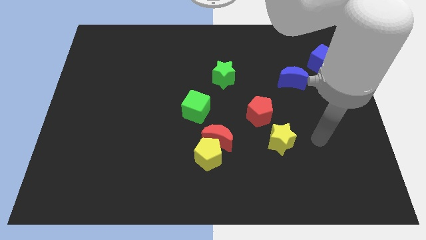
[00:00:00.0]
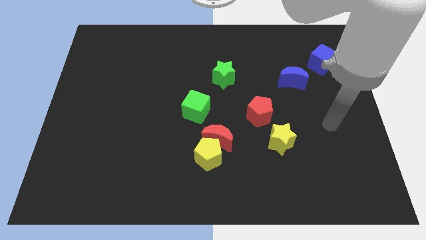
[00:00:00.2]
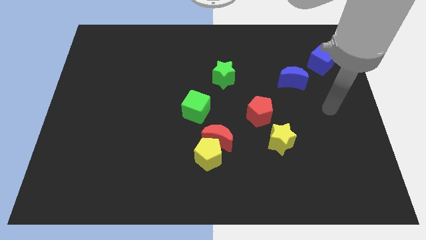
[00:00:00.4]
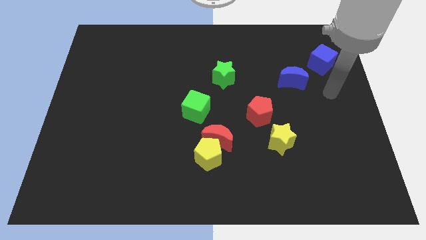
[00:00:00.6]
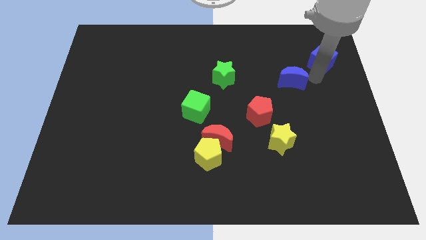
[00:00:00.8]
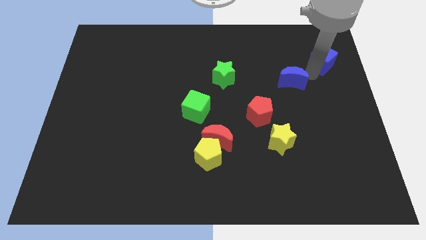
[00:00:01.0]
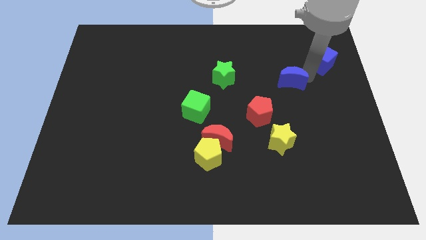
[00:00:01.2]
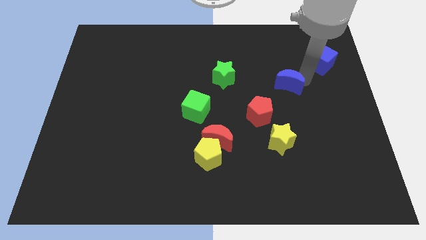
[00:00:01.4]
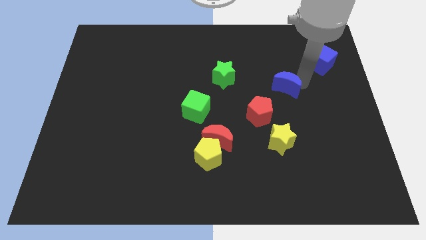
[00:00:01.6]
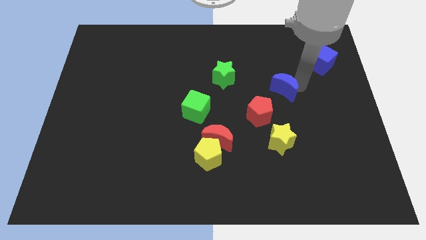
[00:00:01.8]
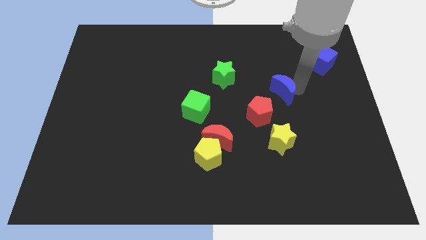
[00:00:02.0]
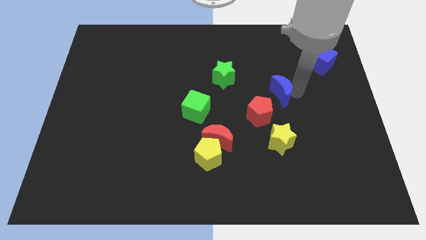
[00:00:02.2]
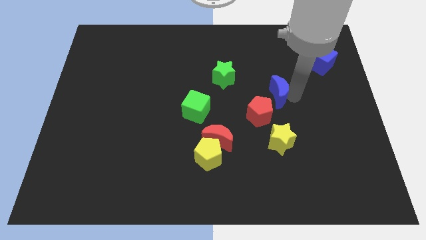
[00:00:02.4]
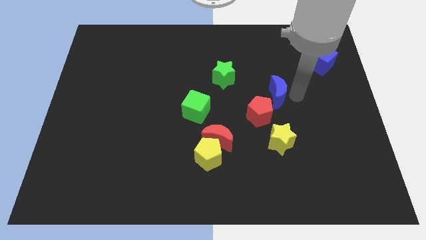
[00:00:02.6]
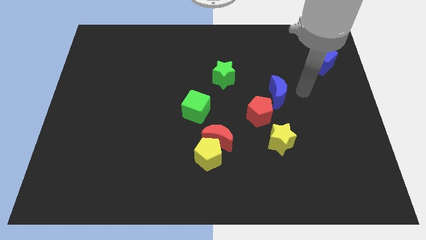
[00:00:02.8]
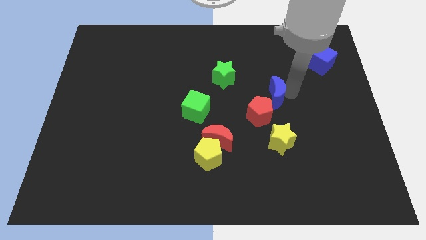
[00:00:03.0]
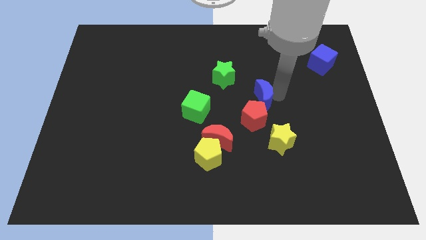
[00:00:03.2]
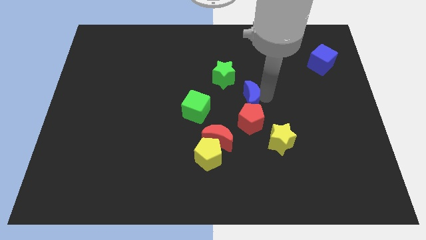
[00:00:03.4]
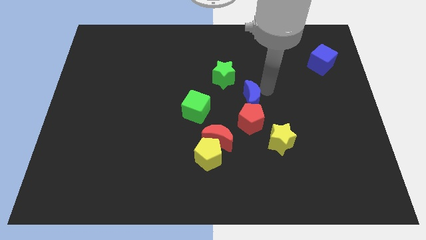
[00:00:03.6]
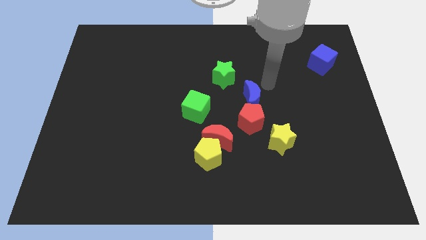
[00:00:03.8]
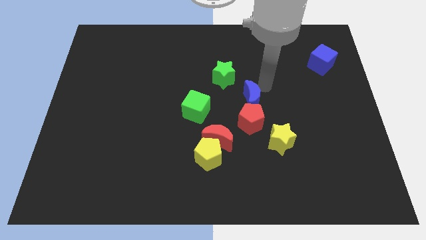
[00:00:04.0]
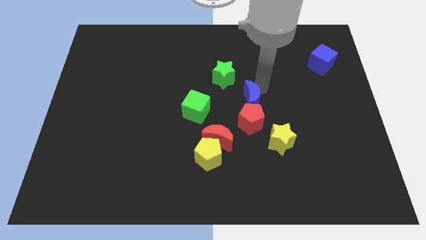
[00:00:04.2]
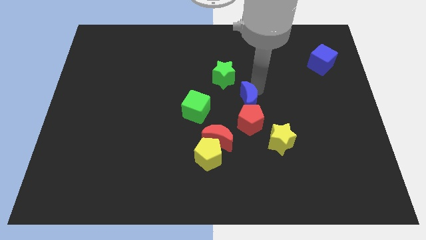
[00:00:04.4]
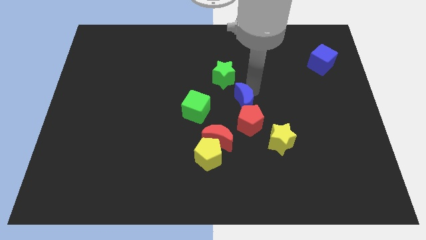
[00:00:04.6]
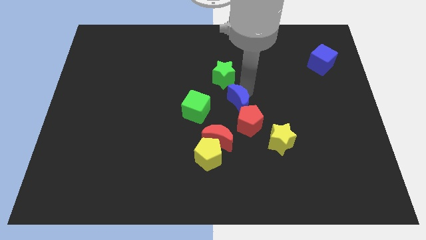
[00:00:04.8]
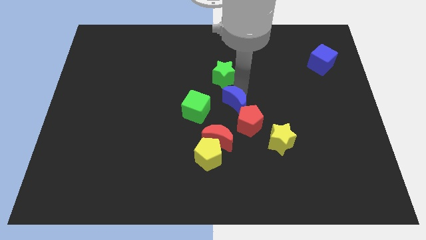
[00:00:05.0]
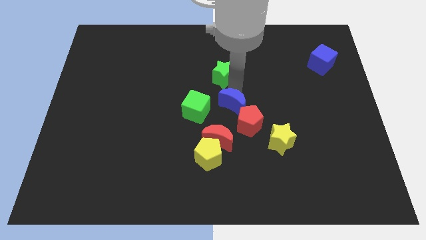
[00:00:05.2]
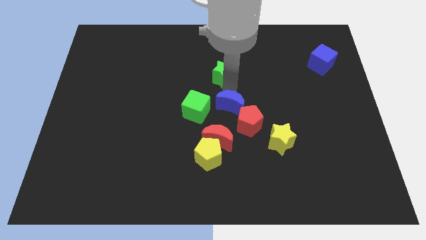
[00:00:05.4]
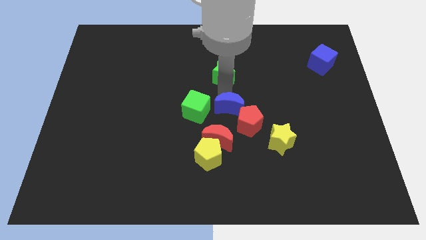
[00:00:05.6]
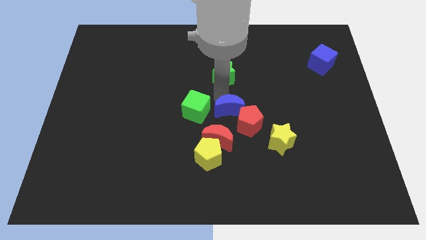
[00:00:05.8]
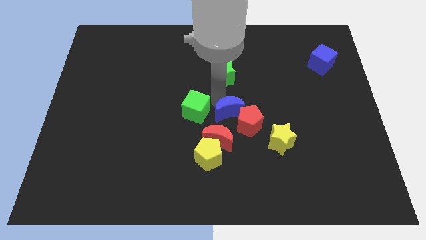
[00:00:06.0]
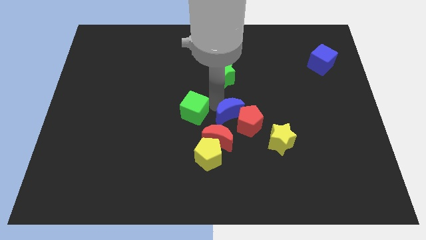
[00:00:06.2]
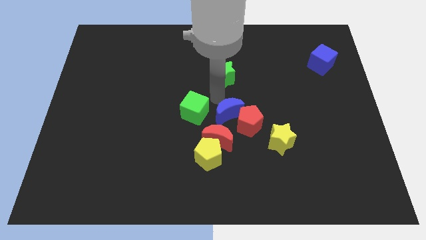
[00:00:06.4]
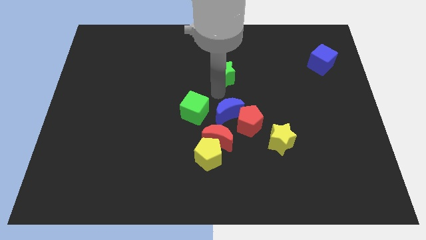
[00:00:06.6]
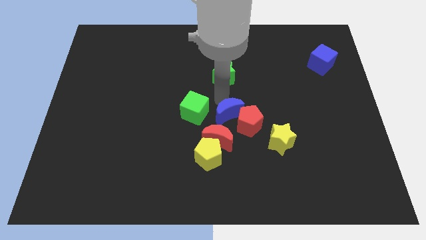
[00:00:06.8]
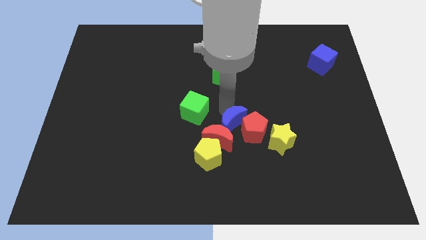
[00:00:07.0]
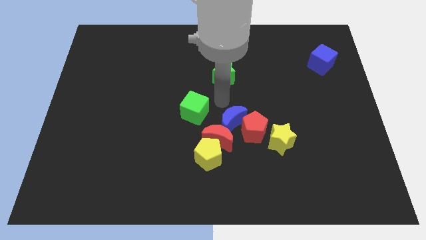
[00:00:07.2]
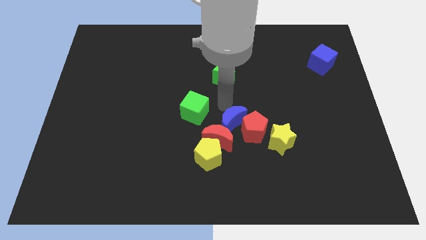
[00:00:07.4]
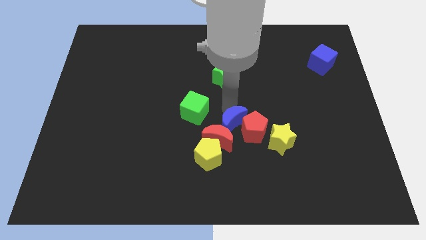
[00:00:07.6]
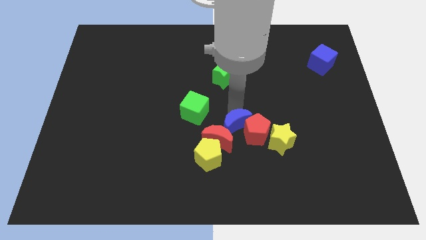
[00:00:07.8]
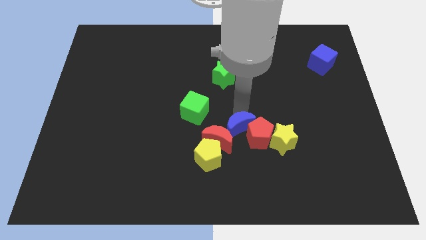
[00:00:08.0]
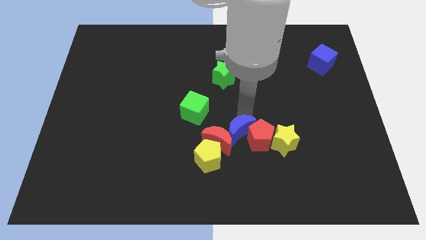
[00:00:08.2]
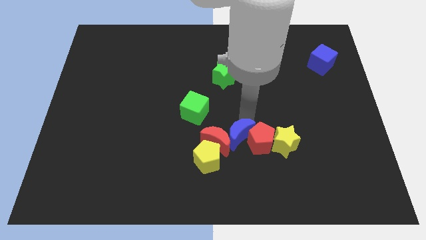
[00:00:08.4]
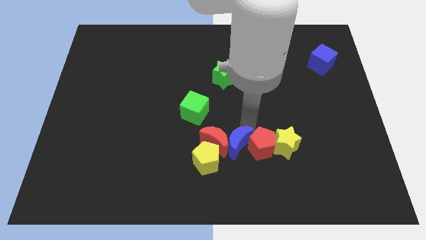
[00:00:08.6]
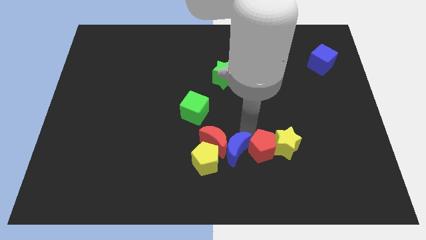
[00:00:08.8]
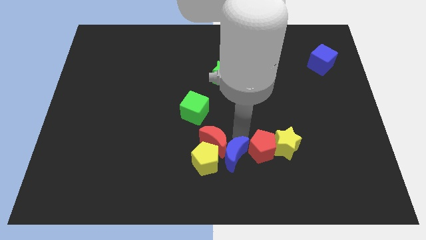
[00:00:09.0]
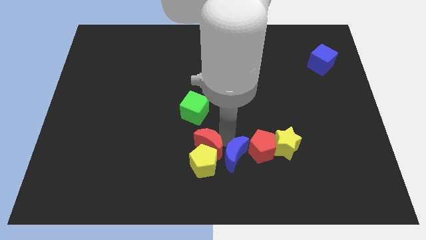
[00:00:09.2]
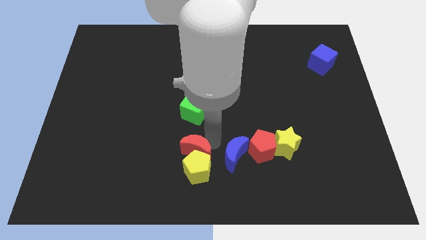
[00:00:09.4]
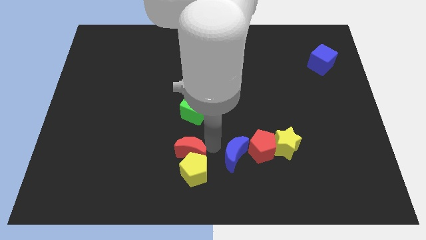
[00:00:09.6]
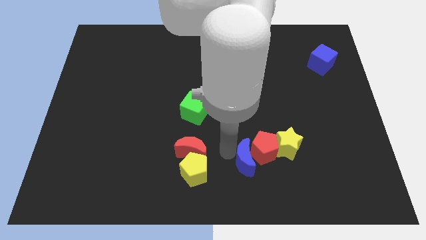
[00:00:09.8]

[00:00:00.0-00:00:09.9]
slide the blue moon to the bottom left of the yellow star

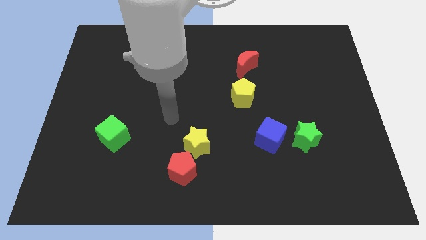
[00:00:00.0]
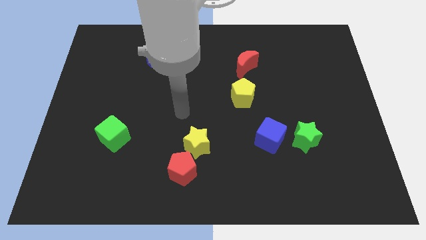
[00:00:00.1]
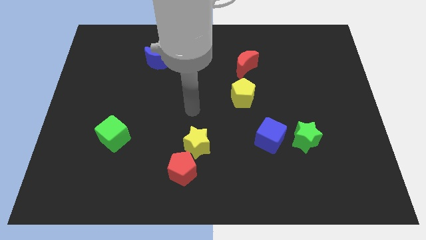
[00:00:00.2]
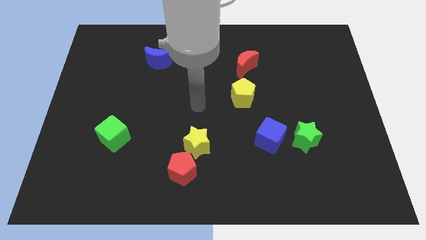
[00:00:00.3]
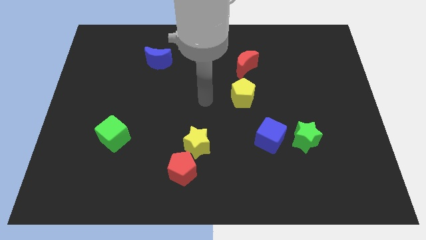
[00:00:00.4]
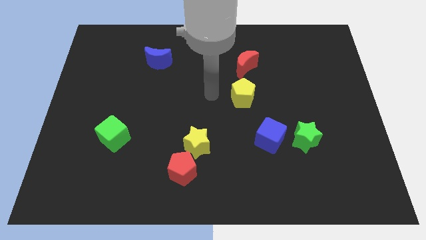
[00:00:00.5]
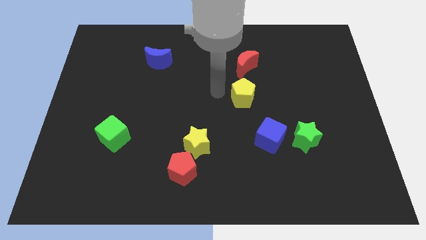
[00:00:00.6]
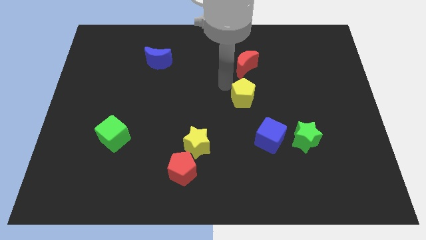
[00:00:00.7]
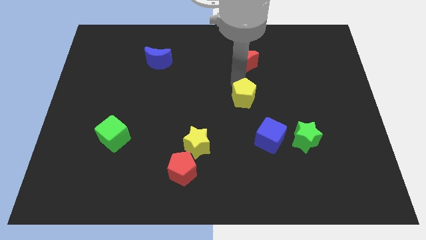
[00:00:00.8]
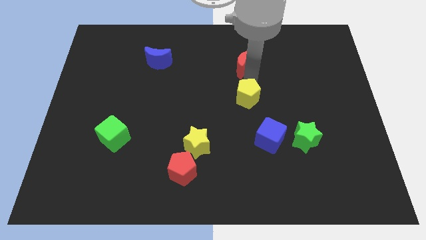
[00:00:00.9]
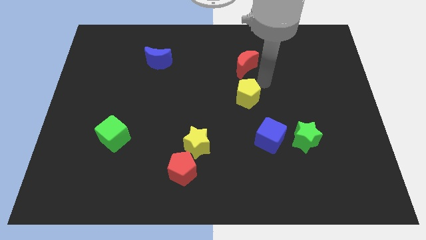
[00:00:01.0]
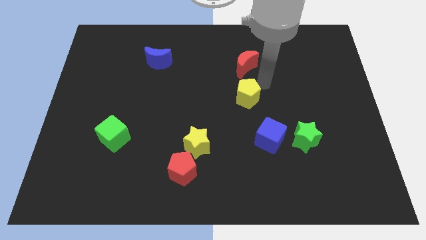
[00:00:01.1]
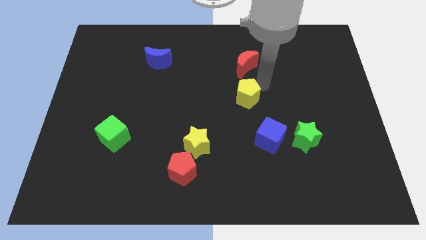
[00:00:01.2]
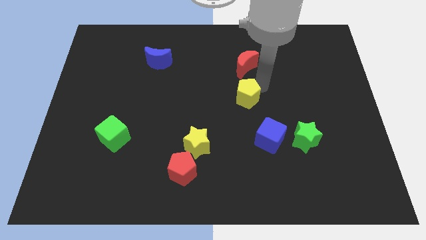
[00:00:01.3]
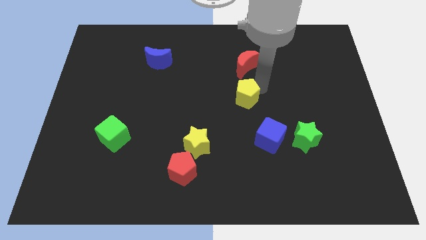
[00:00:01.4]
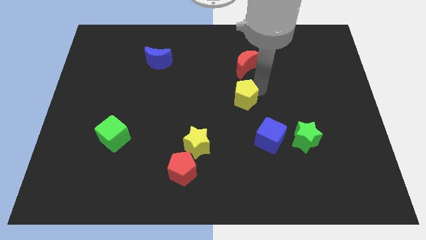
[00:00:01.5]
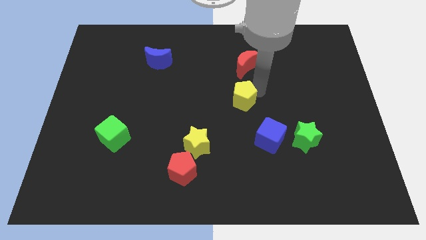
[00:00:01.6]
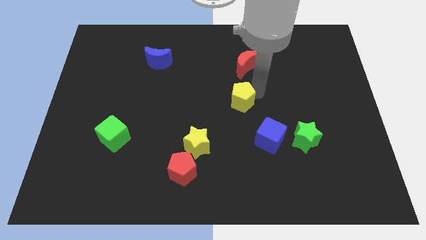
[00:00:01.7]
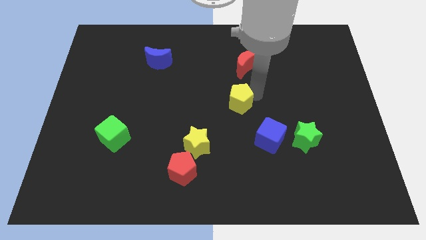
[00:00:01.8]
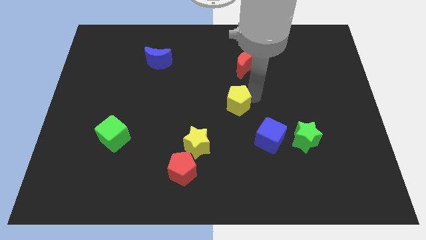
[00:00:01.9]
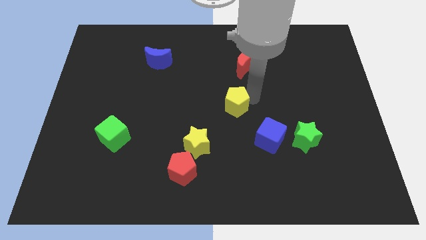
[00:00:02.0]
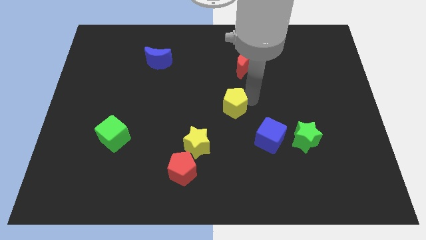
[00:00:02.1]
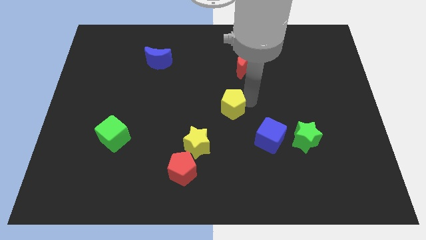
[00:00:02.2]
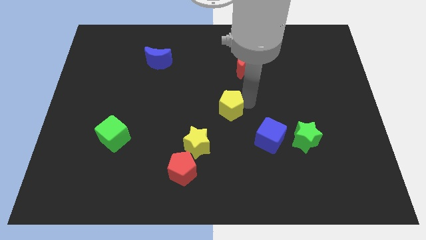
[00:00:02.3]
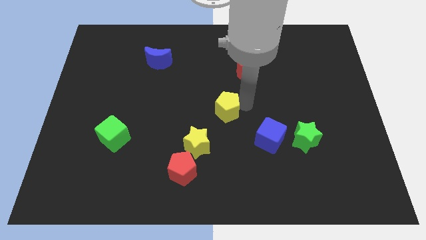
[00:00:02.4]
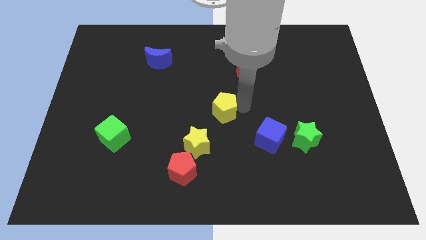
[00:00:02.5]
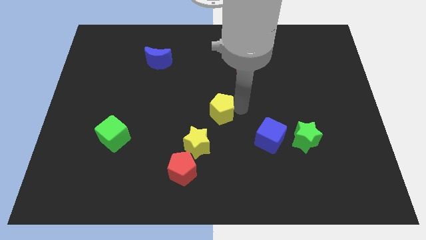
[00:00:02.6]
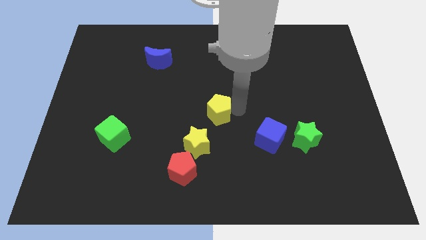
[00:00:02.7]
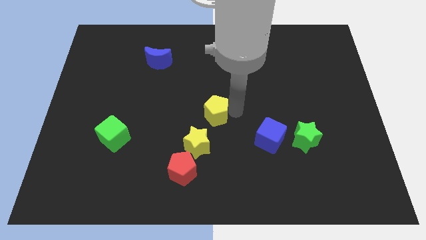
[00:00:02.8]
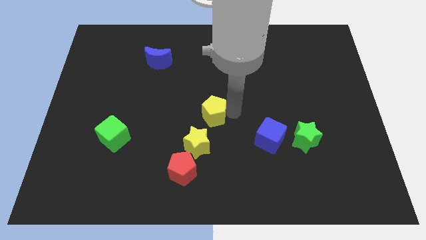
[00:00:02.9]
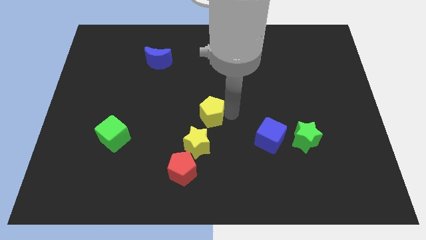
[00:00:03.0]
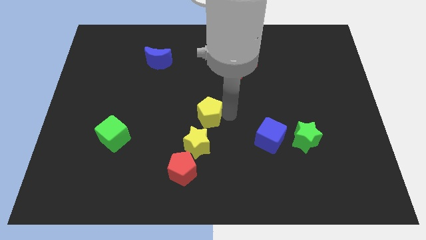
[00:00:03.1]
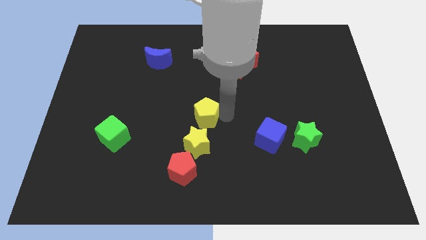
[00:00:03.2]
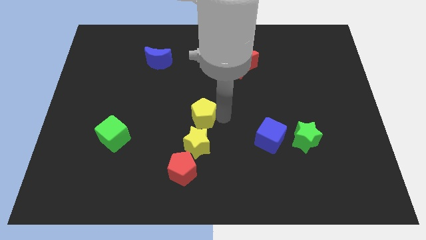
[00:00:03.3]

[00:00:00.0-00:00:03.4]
put the yellow pentagon above the red pentagon
